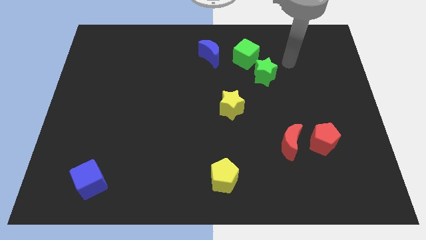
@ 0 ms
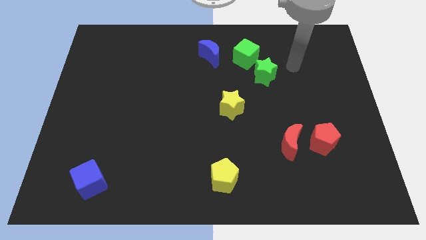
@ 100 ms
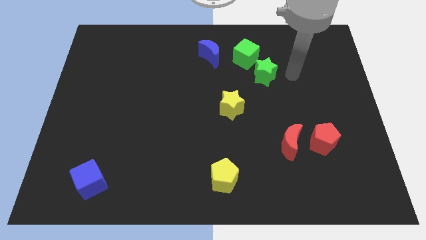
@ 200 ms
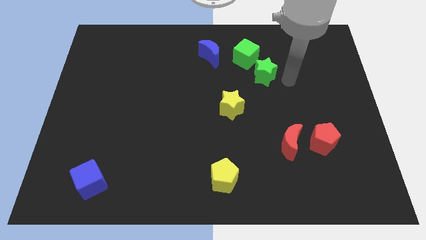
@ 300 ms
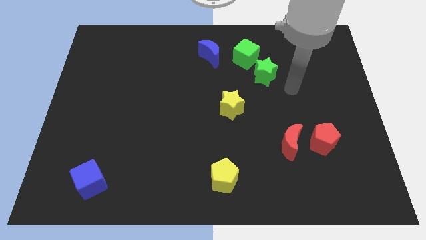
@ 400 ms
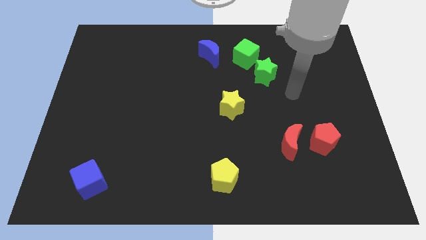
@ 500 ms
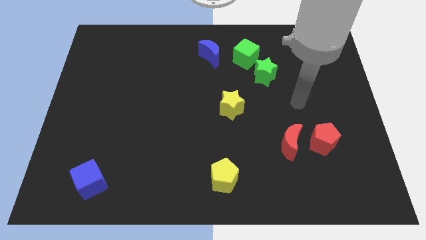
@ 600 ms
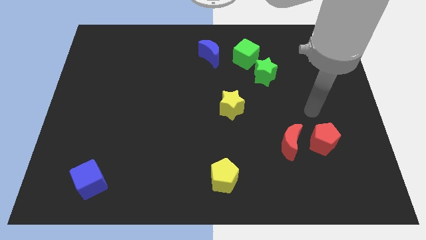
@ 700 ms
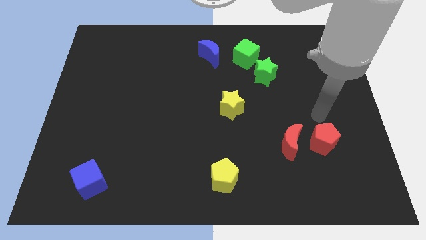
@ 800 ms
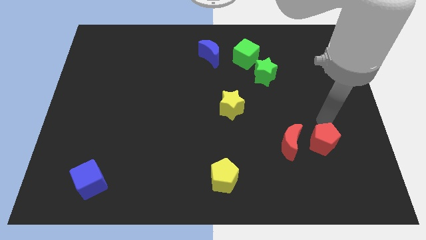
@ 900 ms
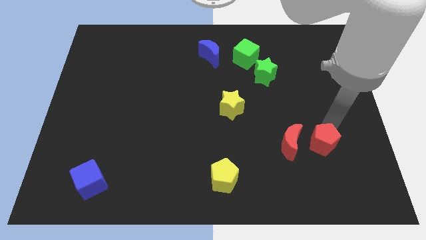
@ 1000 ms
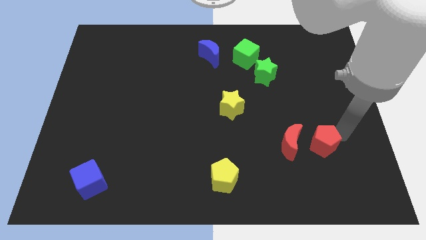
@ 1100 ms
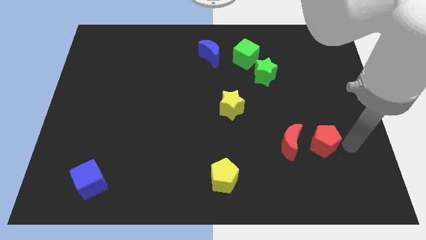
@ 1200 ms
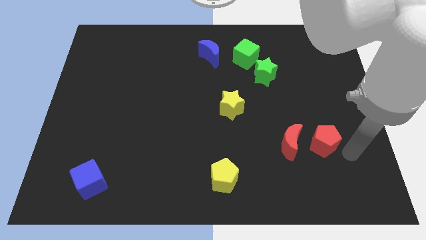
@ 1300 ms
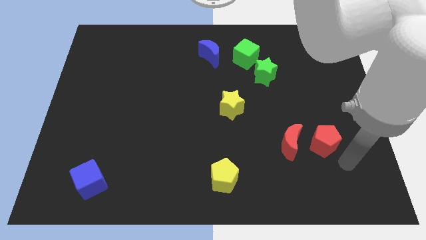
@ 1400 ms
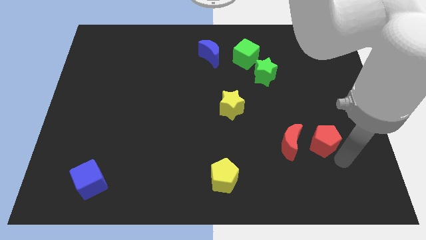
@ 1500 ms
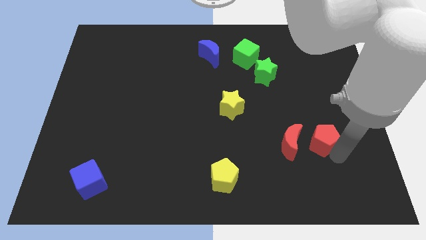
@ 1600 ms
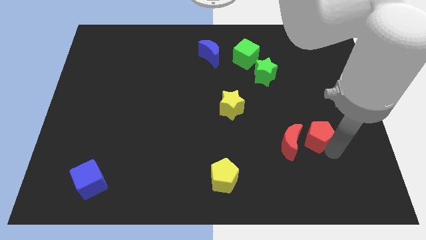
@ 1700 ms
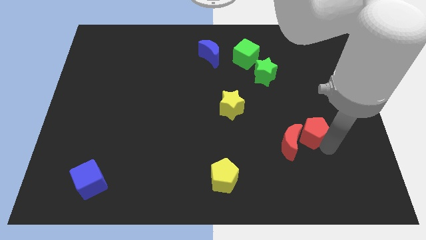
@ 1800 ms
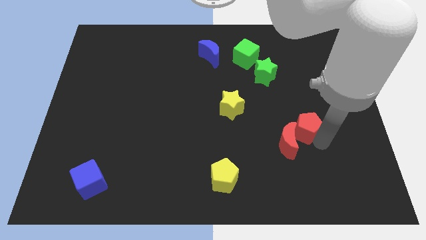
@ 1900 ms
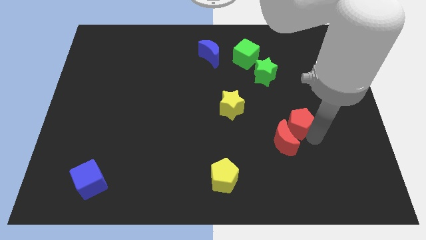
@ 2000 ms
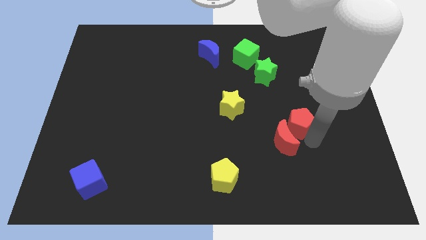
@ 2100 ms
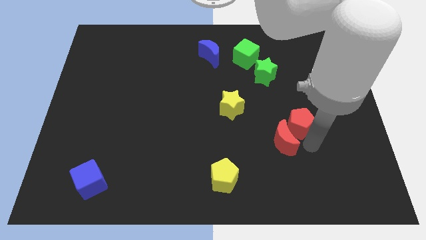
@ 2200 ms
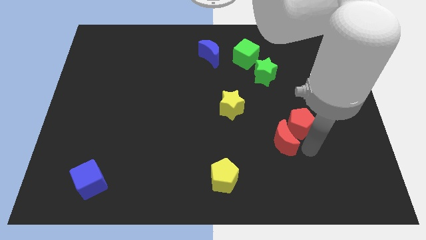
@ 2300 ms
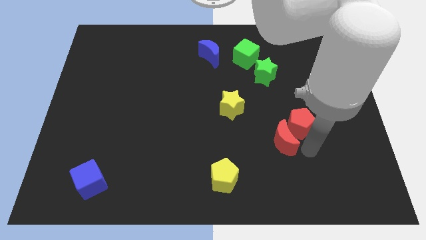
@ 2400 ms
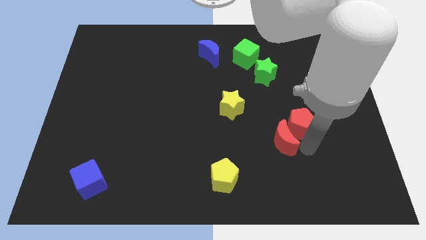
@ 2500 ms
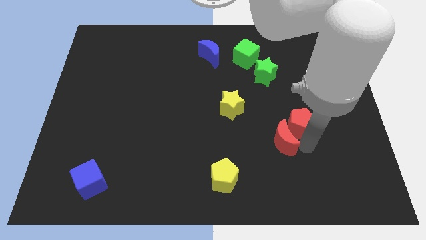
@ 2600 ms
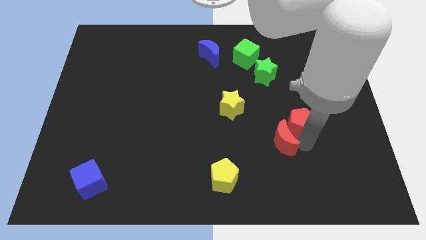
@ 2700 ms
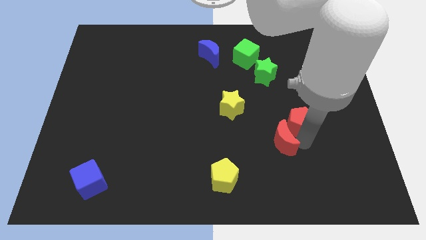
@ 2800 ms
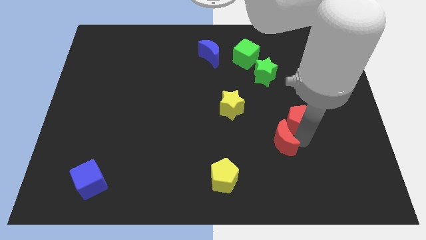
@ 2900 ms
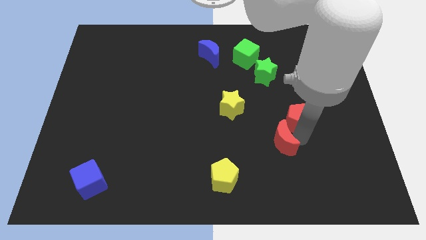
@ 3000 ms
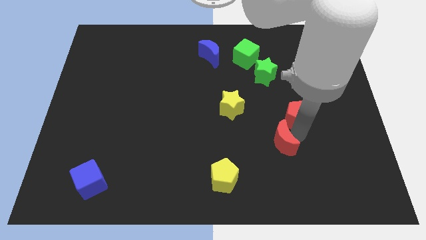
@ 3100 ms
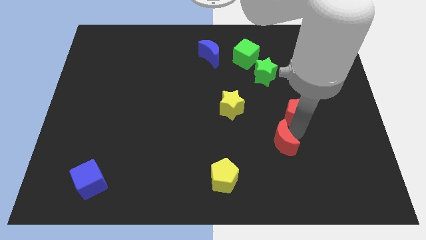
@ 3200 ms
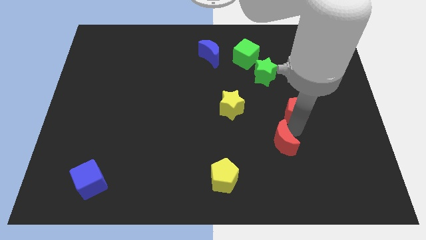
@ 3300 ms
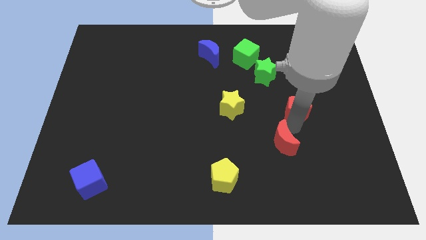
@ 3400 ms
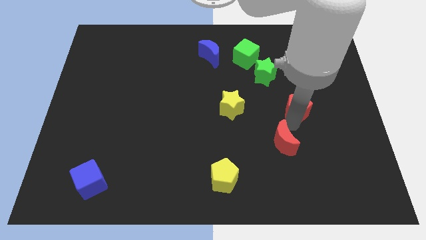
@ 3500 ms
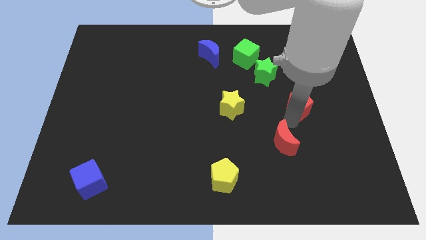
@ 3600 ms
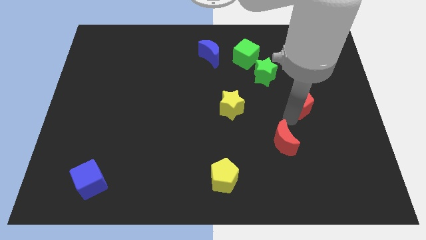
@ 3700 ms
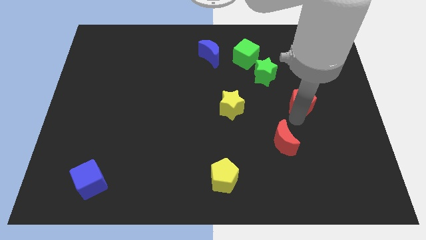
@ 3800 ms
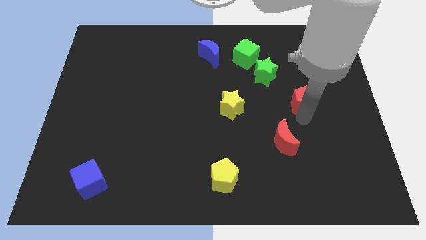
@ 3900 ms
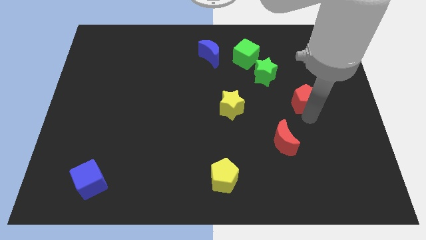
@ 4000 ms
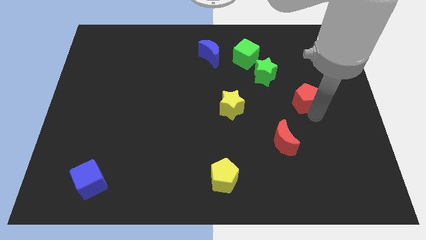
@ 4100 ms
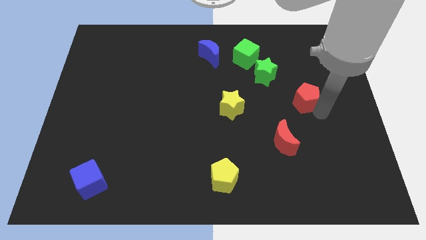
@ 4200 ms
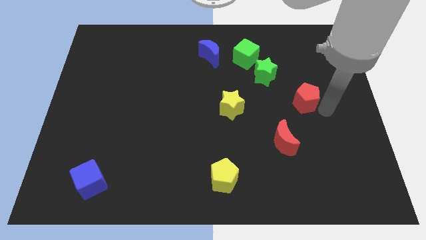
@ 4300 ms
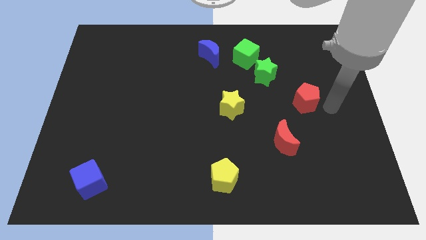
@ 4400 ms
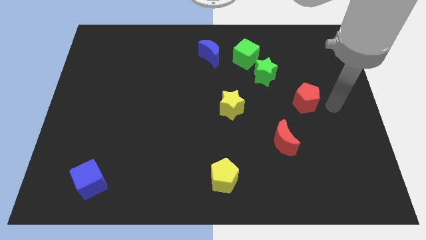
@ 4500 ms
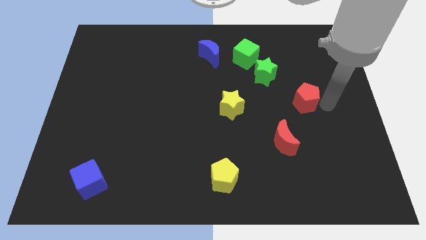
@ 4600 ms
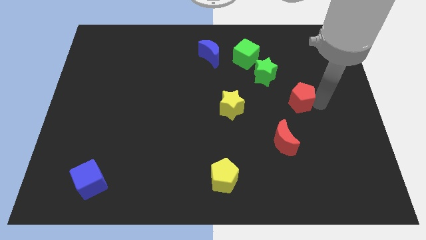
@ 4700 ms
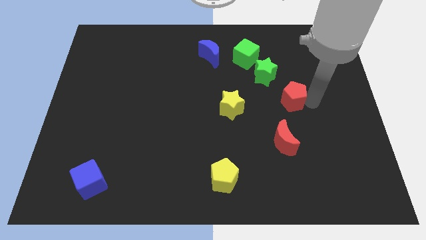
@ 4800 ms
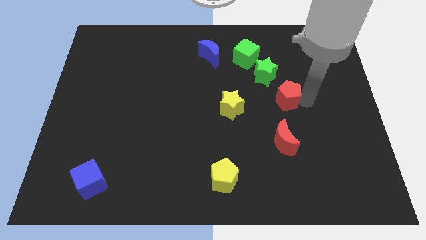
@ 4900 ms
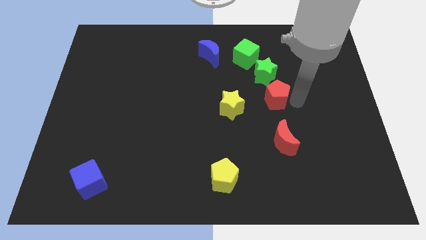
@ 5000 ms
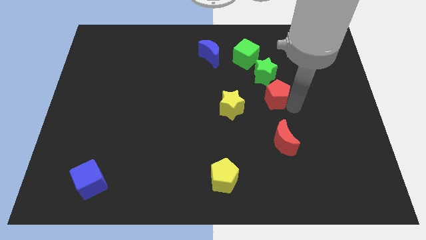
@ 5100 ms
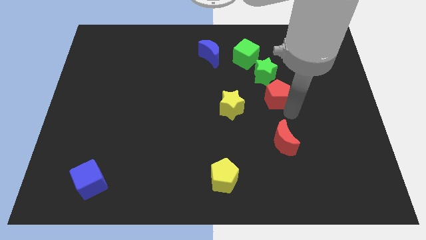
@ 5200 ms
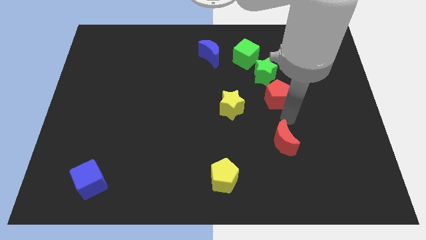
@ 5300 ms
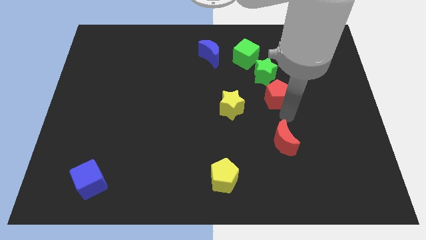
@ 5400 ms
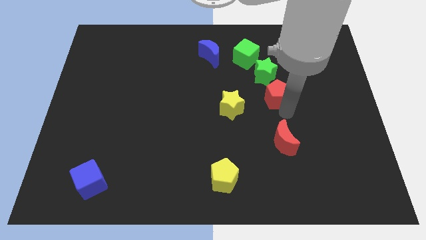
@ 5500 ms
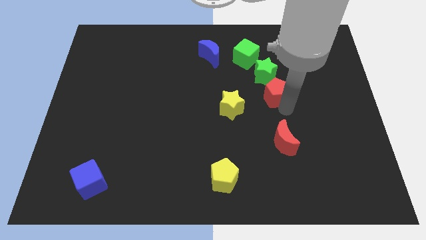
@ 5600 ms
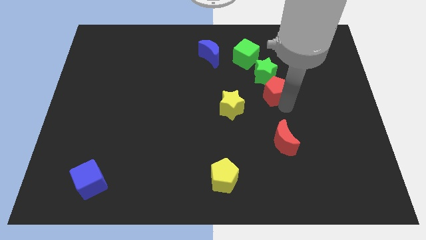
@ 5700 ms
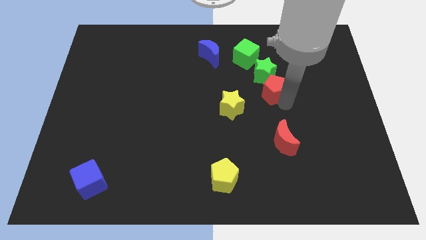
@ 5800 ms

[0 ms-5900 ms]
push the red pentagon towards the green star
